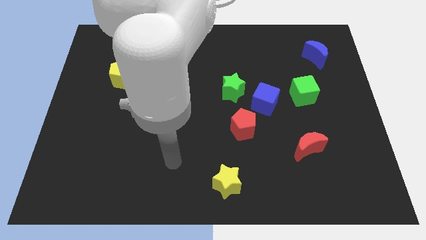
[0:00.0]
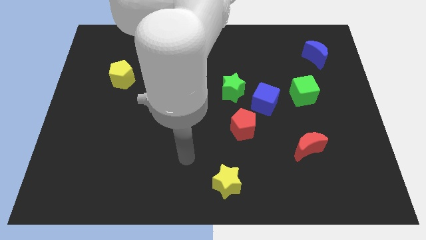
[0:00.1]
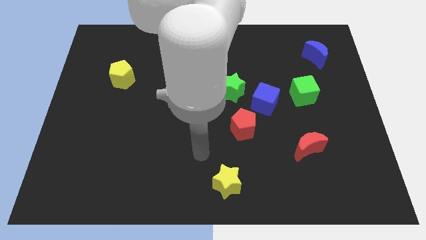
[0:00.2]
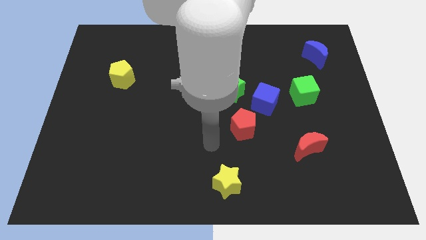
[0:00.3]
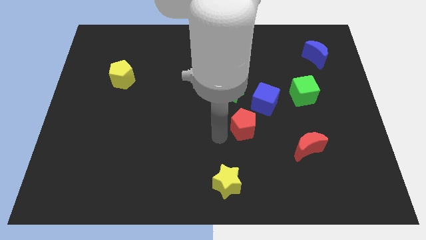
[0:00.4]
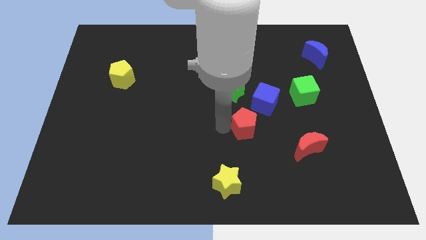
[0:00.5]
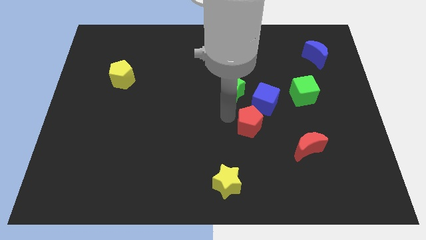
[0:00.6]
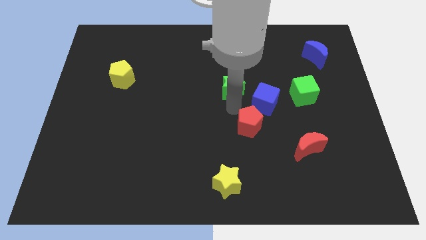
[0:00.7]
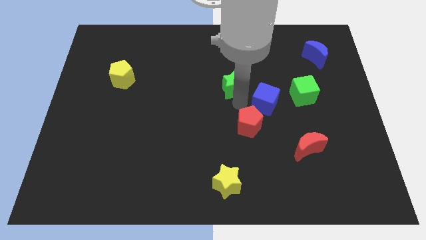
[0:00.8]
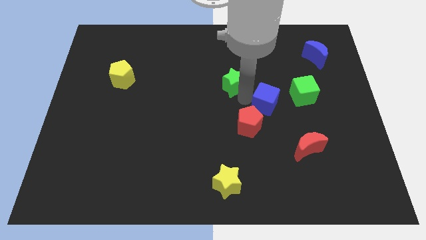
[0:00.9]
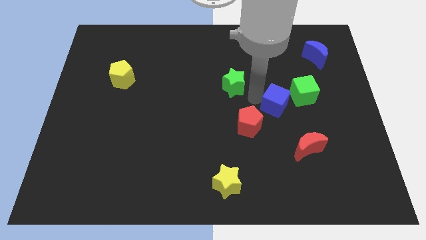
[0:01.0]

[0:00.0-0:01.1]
separate the green star from the blue cube

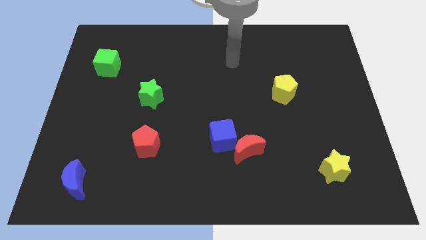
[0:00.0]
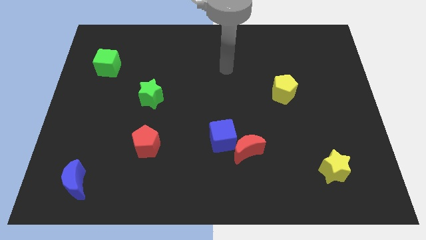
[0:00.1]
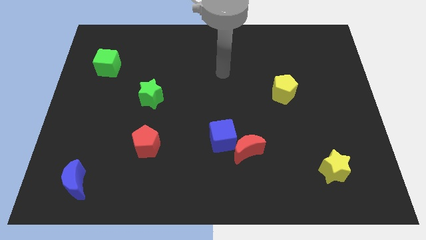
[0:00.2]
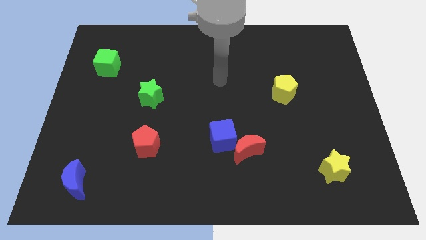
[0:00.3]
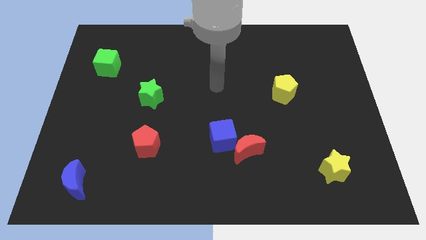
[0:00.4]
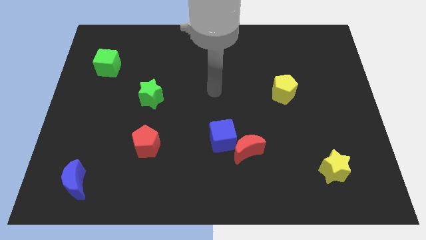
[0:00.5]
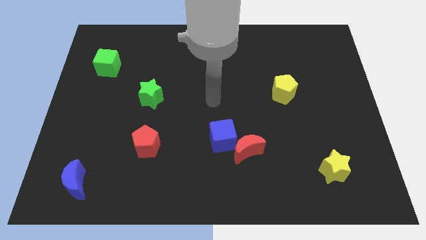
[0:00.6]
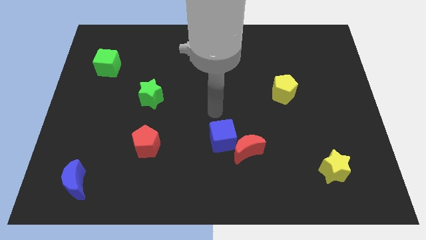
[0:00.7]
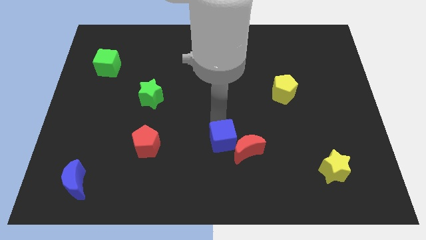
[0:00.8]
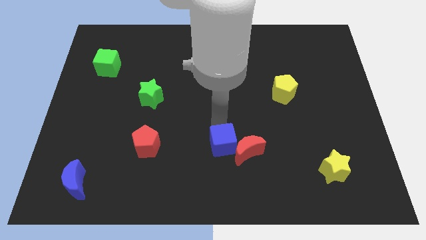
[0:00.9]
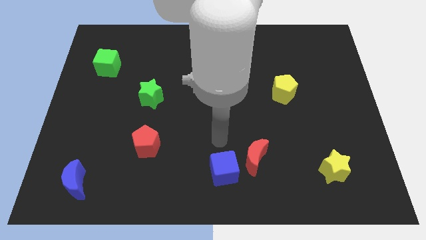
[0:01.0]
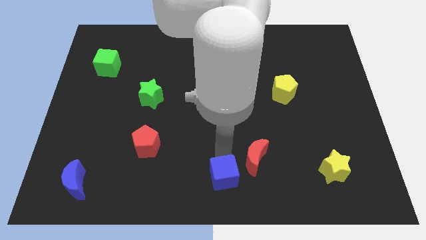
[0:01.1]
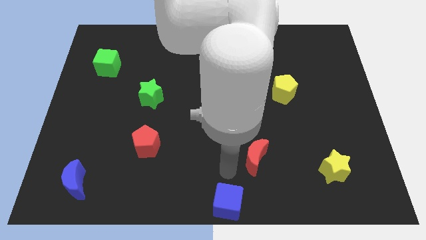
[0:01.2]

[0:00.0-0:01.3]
separate the red moon from the blue cube

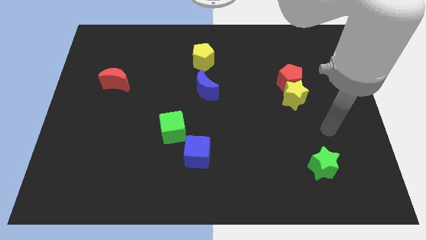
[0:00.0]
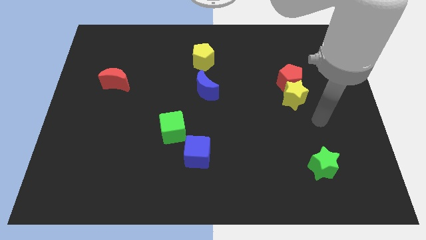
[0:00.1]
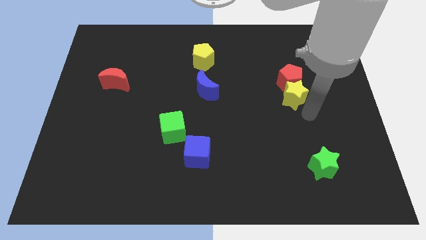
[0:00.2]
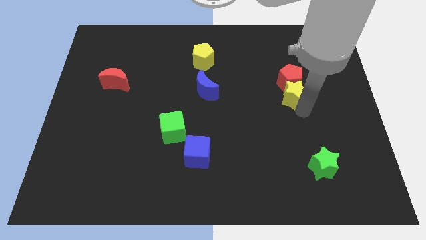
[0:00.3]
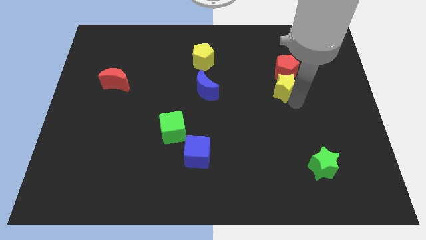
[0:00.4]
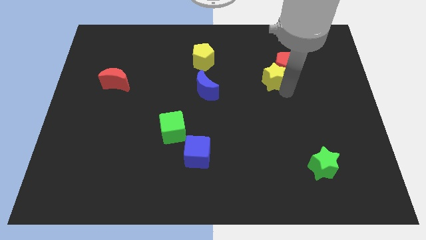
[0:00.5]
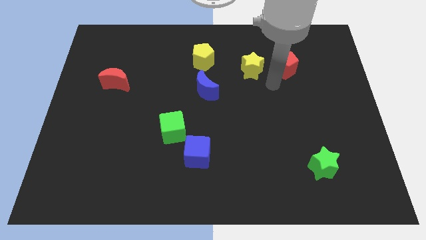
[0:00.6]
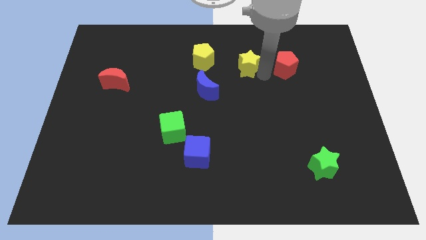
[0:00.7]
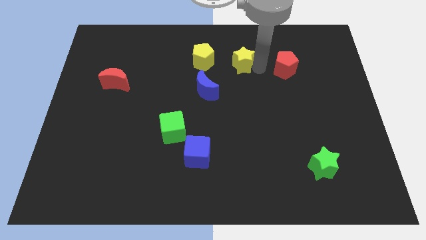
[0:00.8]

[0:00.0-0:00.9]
separate the red pentagon from the yellow star

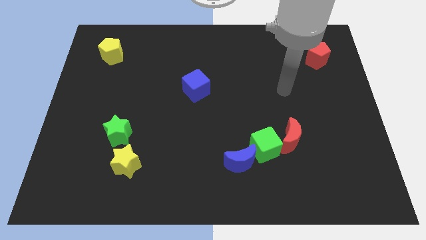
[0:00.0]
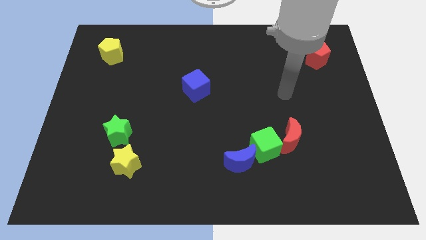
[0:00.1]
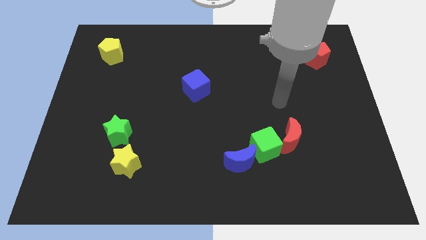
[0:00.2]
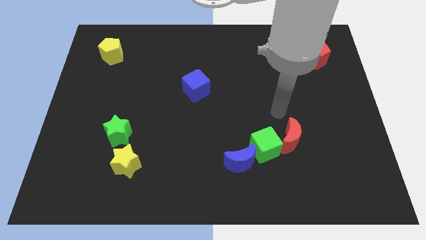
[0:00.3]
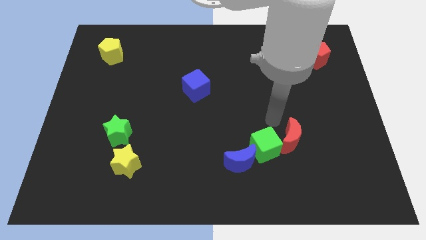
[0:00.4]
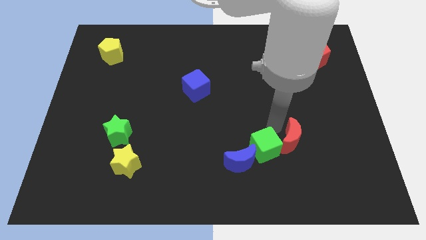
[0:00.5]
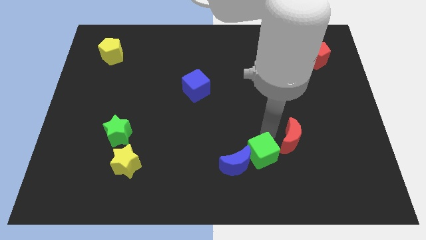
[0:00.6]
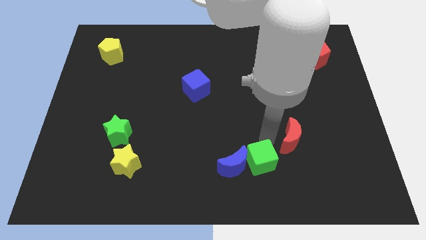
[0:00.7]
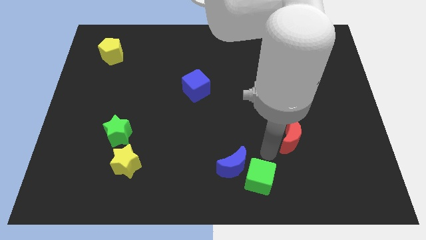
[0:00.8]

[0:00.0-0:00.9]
pull the red moon apart from the green cube

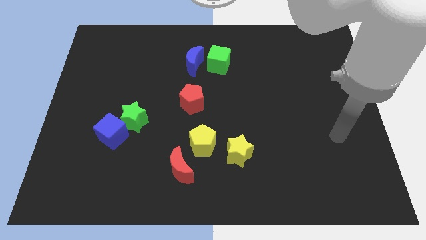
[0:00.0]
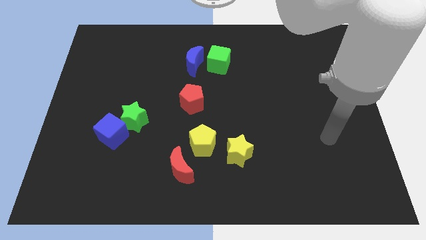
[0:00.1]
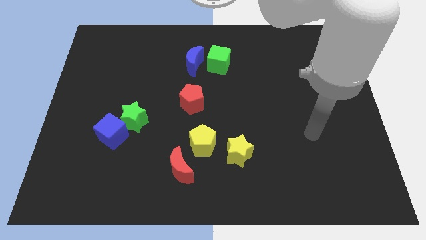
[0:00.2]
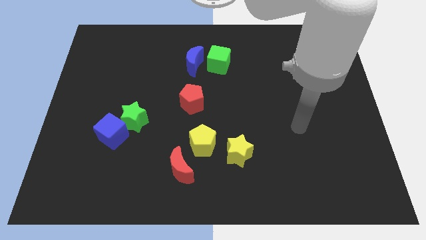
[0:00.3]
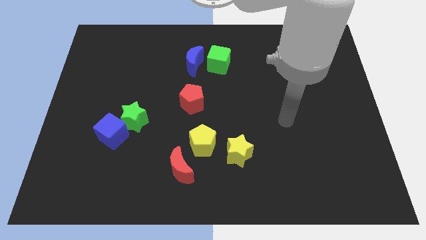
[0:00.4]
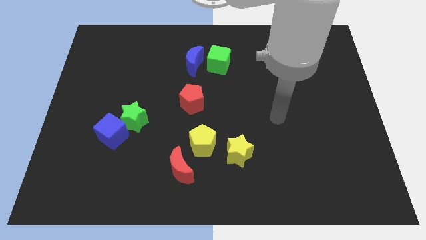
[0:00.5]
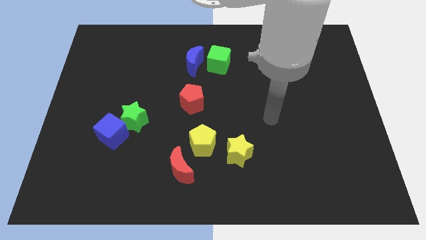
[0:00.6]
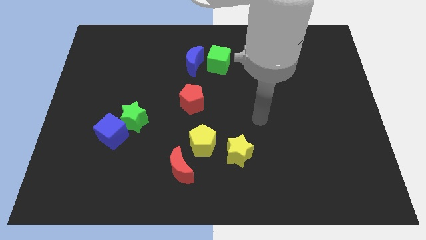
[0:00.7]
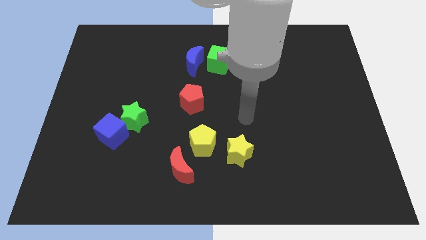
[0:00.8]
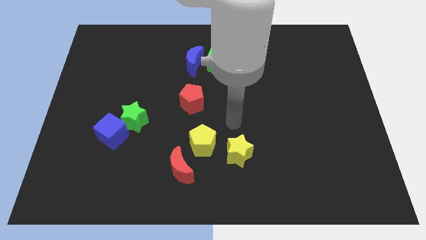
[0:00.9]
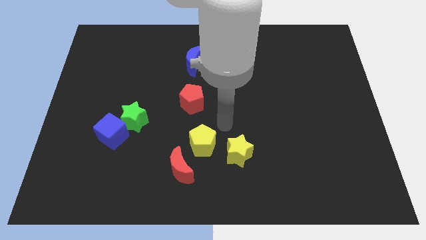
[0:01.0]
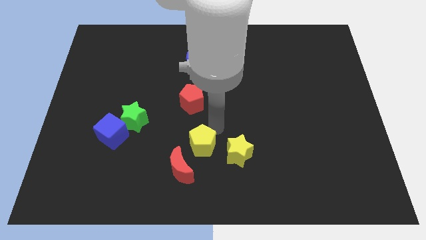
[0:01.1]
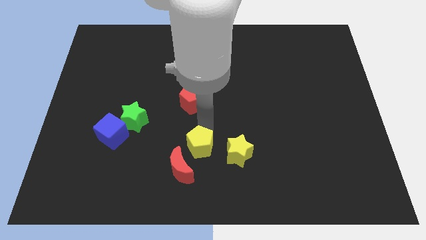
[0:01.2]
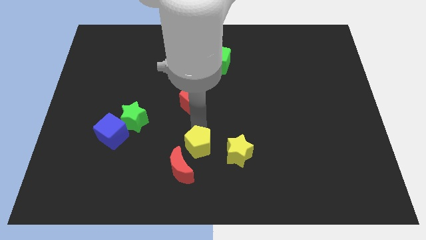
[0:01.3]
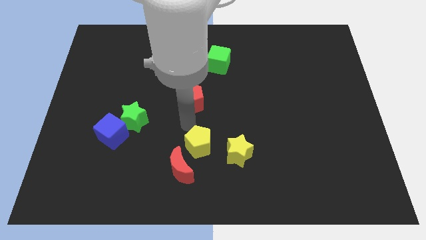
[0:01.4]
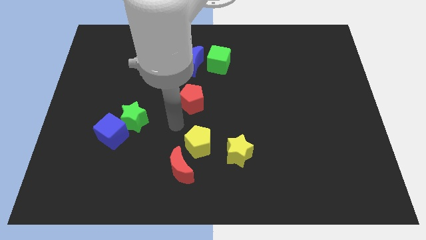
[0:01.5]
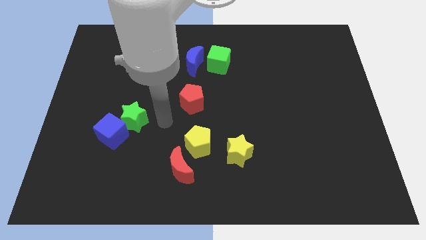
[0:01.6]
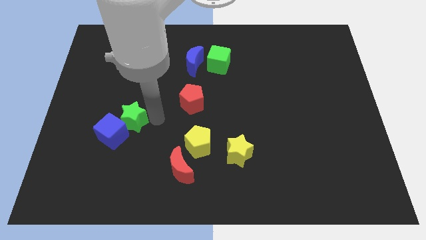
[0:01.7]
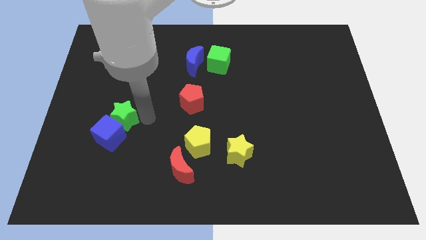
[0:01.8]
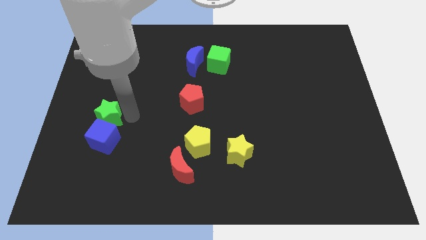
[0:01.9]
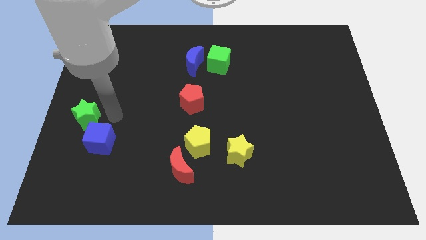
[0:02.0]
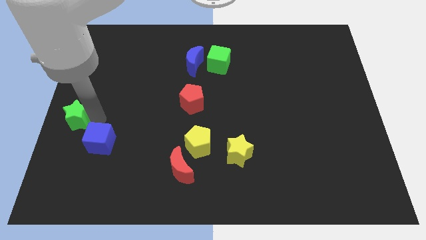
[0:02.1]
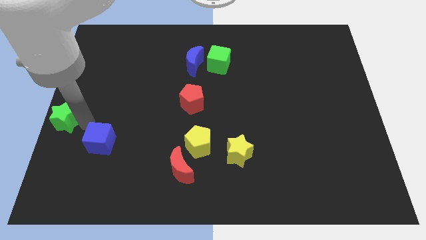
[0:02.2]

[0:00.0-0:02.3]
pull the blue cube apart from the green star

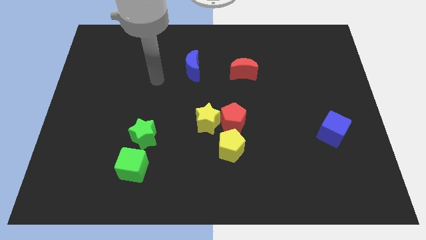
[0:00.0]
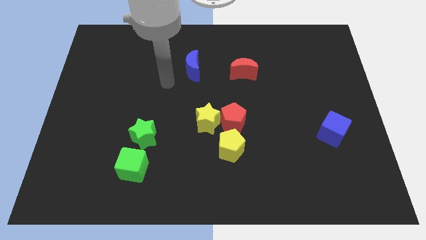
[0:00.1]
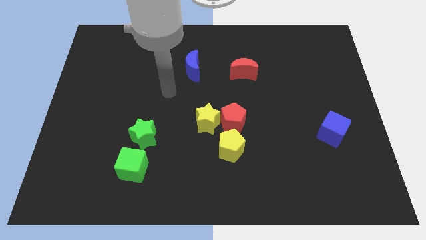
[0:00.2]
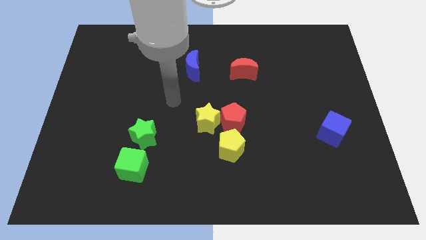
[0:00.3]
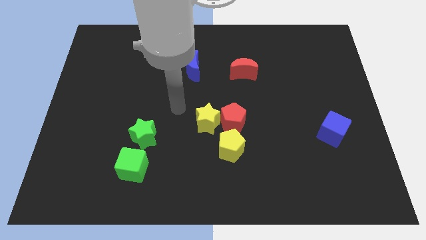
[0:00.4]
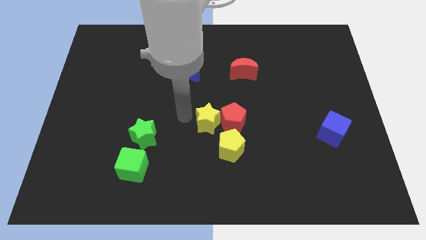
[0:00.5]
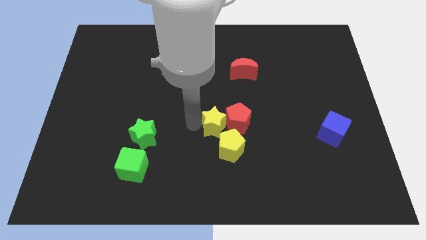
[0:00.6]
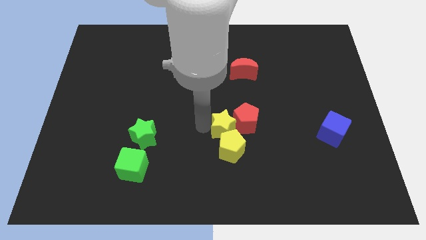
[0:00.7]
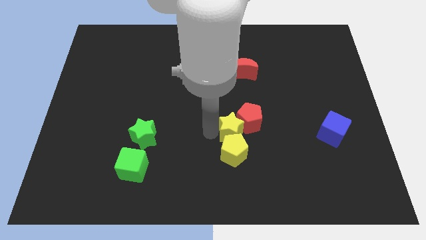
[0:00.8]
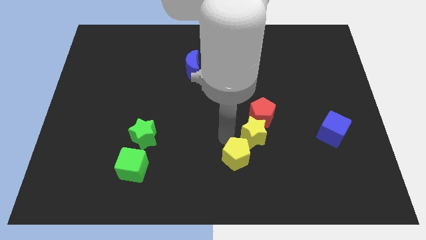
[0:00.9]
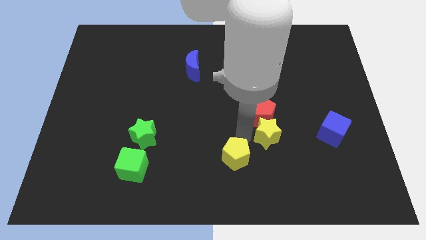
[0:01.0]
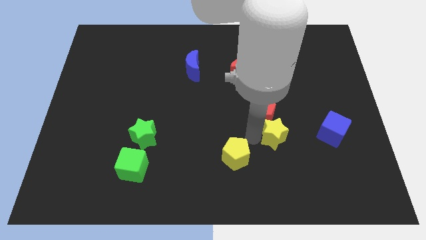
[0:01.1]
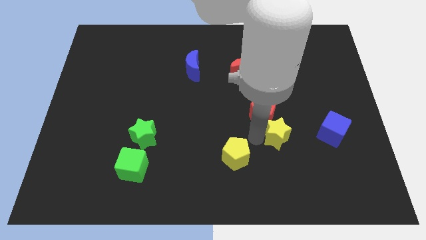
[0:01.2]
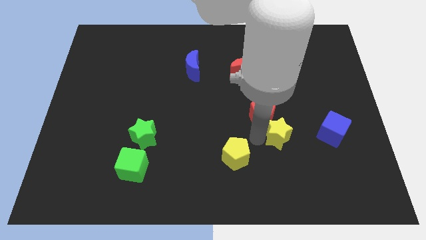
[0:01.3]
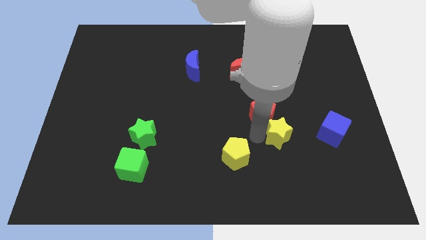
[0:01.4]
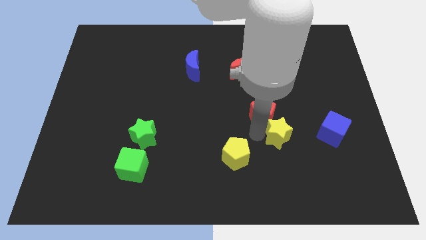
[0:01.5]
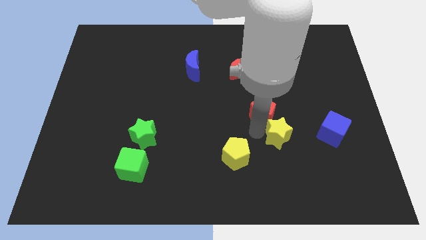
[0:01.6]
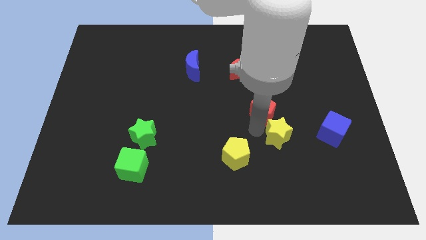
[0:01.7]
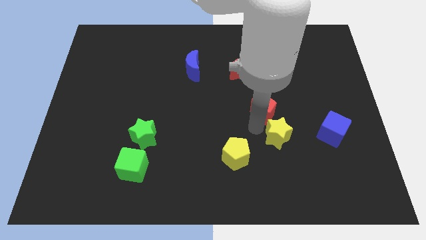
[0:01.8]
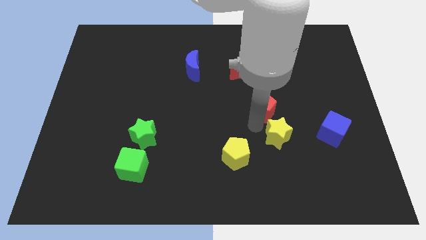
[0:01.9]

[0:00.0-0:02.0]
separate the red pentagon from the yellow star and yellow pentagon

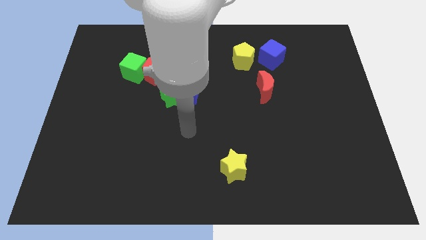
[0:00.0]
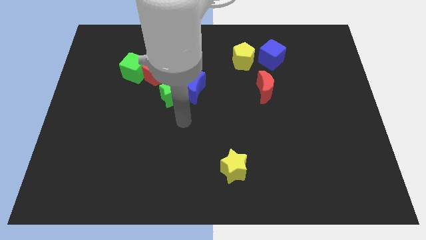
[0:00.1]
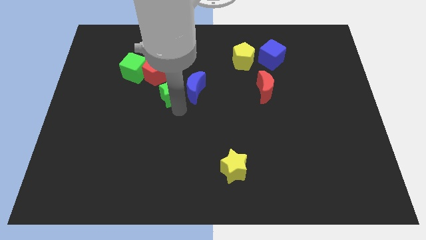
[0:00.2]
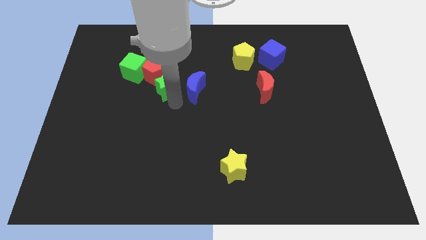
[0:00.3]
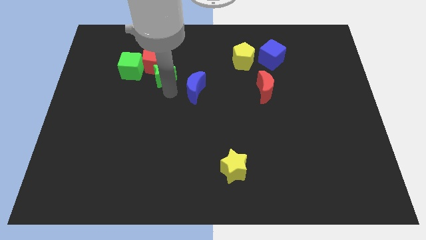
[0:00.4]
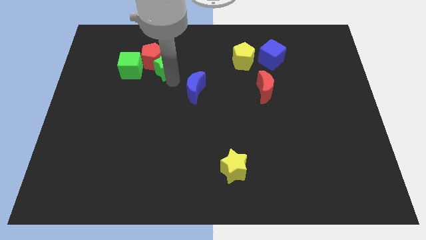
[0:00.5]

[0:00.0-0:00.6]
pull the blue moon apart from the green star

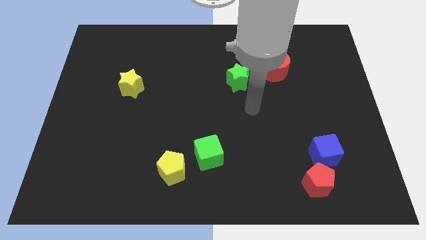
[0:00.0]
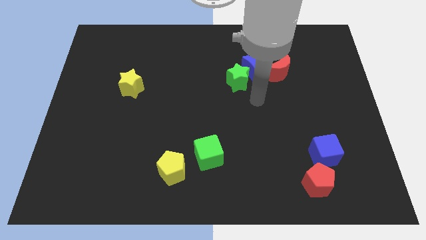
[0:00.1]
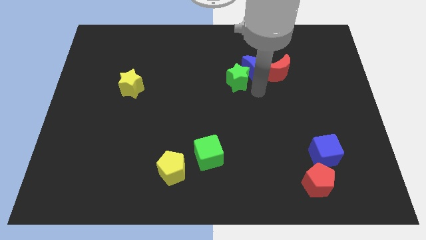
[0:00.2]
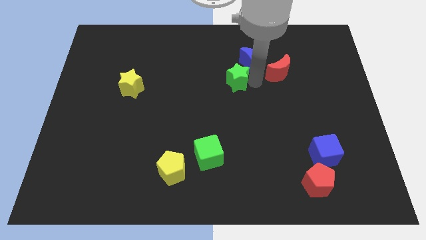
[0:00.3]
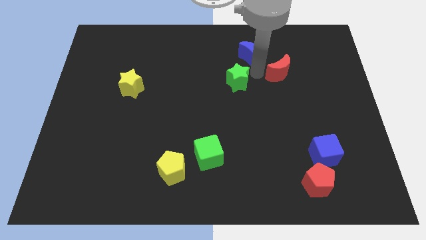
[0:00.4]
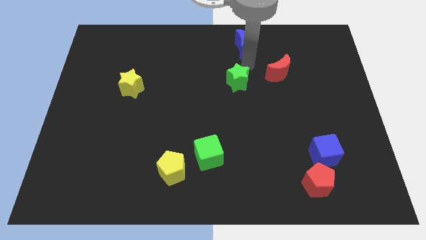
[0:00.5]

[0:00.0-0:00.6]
pull the green star apart from the blue moon
